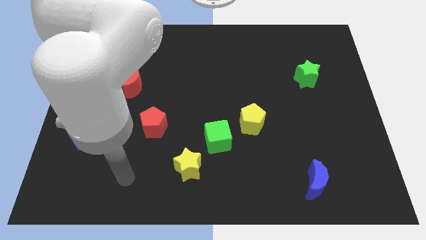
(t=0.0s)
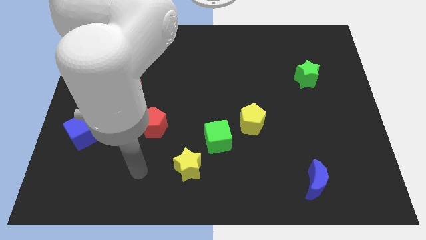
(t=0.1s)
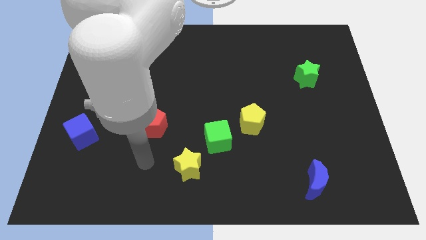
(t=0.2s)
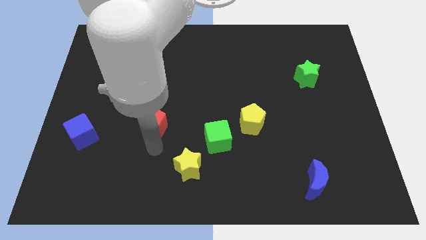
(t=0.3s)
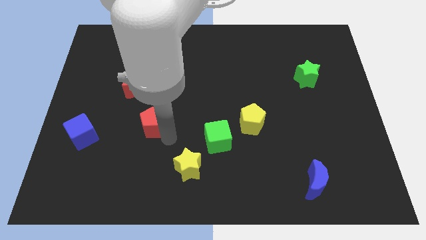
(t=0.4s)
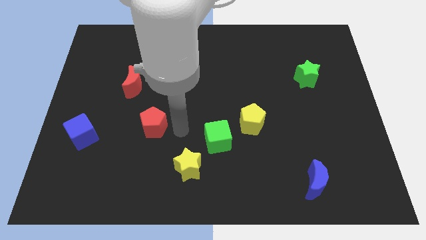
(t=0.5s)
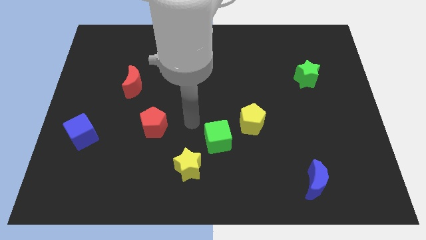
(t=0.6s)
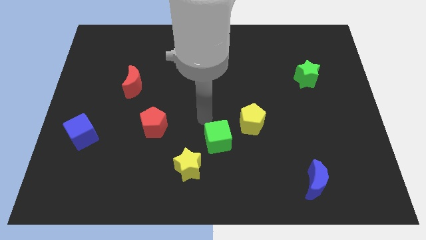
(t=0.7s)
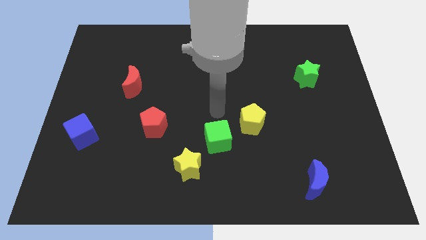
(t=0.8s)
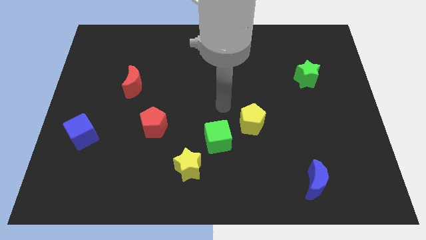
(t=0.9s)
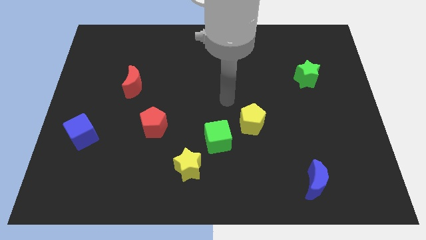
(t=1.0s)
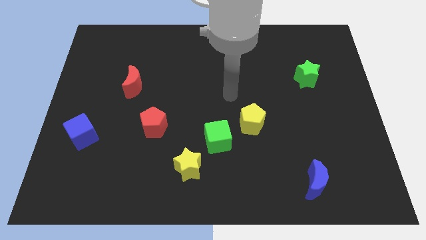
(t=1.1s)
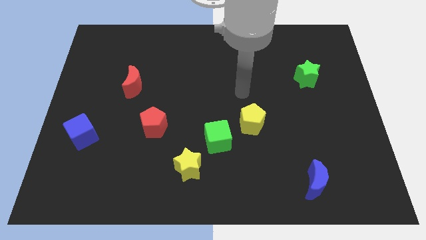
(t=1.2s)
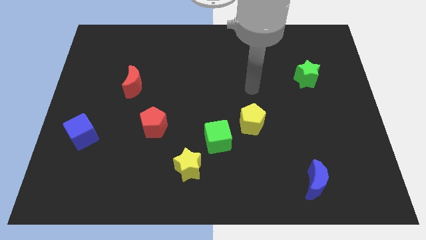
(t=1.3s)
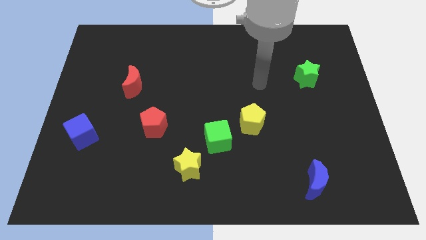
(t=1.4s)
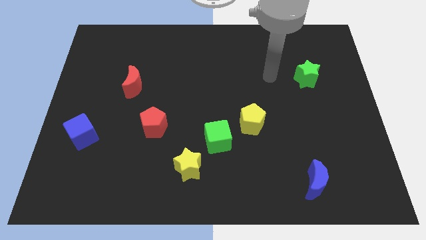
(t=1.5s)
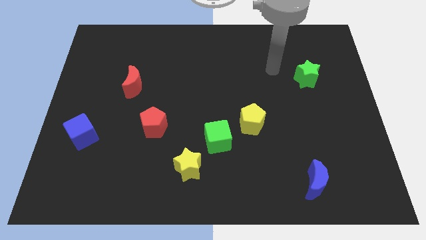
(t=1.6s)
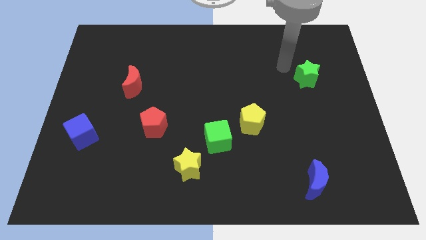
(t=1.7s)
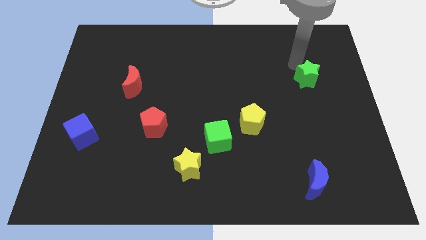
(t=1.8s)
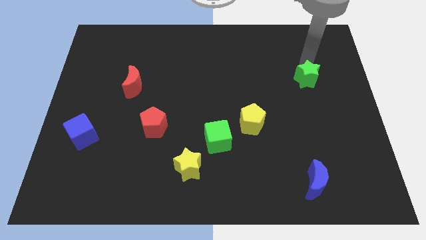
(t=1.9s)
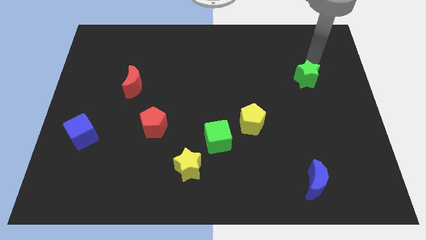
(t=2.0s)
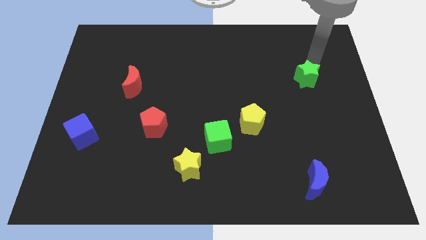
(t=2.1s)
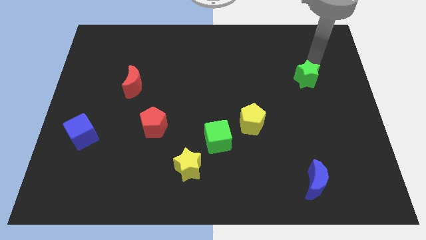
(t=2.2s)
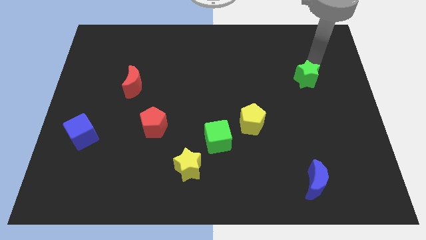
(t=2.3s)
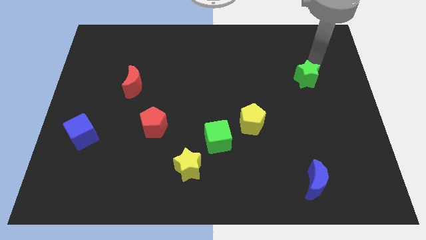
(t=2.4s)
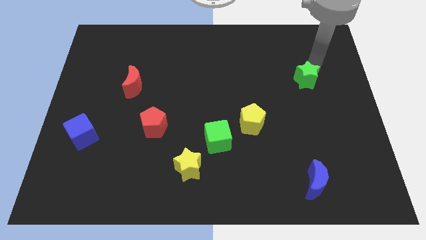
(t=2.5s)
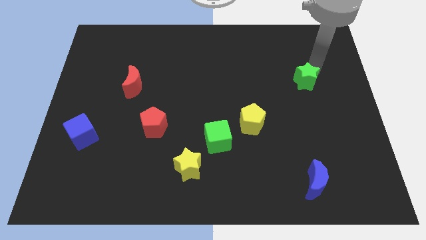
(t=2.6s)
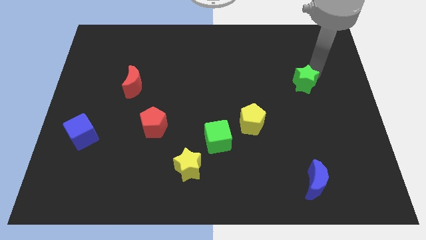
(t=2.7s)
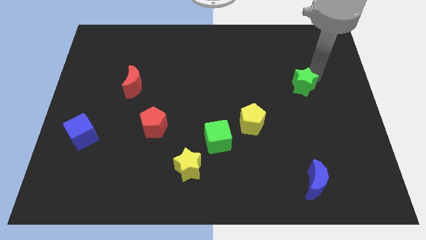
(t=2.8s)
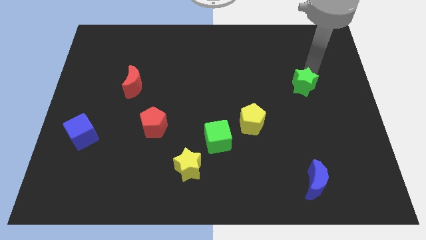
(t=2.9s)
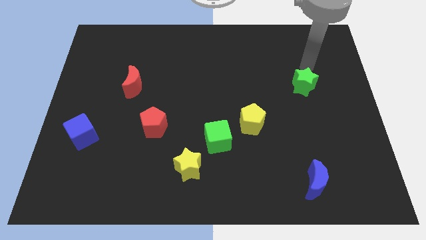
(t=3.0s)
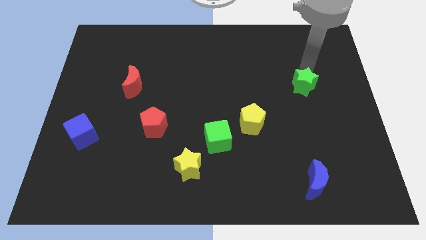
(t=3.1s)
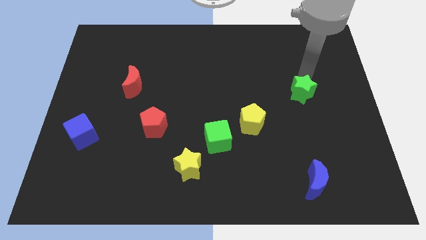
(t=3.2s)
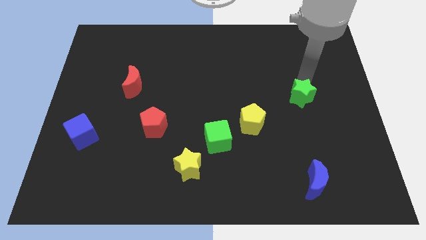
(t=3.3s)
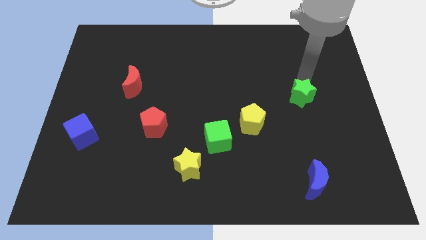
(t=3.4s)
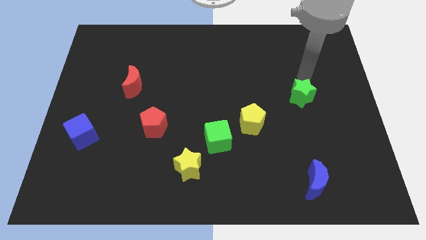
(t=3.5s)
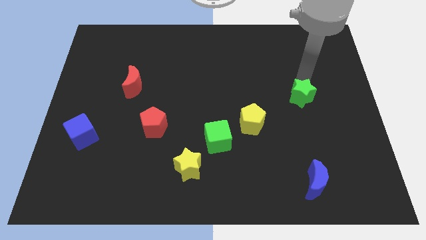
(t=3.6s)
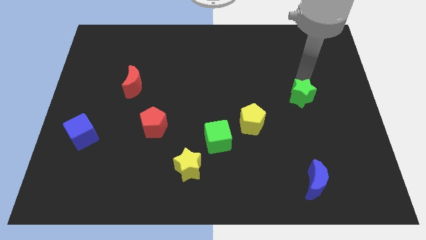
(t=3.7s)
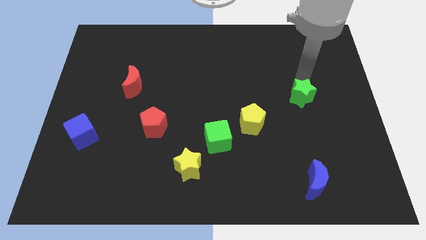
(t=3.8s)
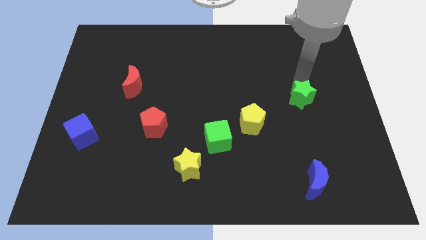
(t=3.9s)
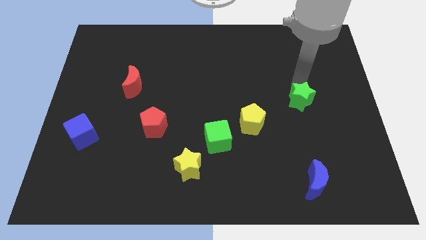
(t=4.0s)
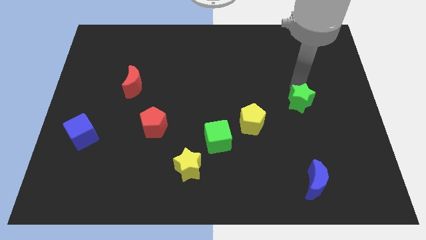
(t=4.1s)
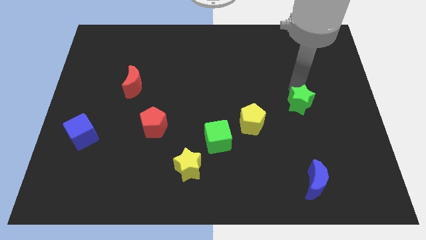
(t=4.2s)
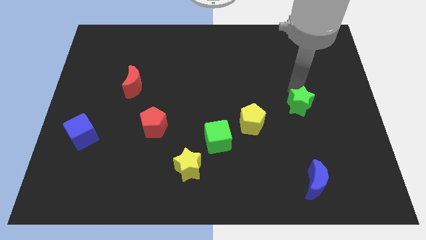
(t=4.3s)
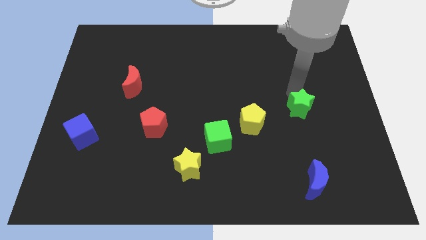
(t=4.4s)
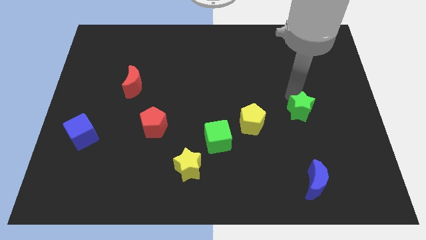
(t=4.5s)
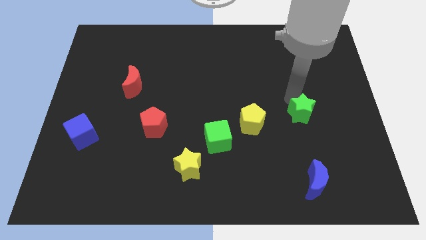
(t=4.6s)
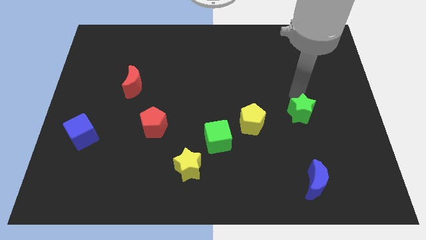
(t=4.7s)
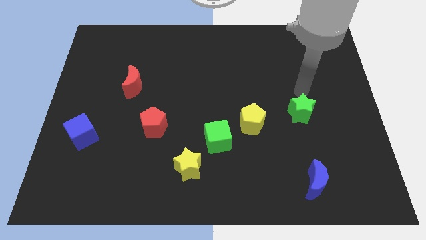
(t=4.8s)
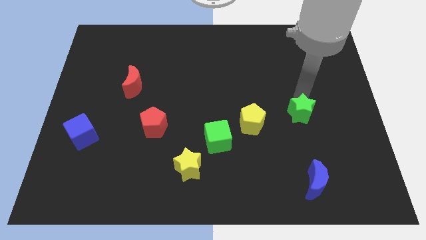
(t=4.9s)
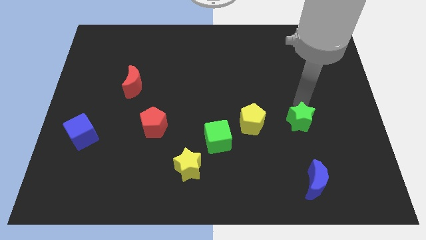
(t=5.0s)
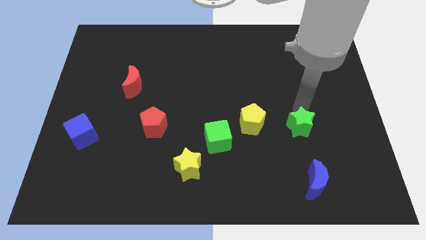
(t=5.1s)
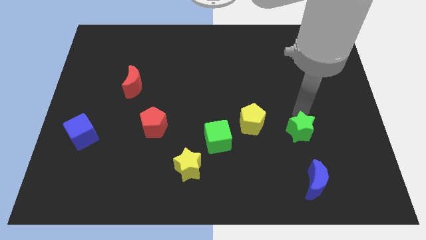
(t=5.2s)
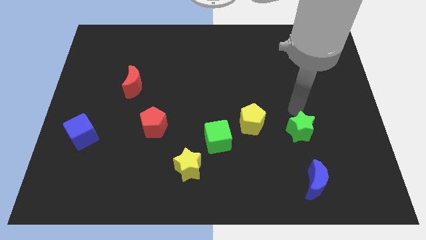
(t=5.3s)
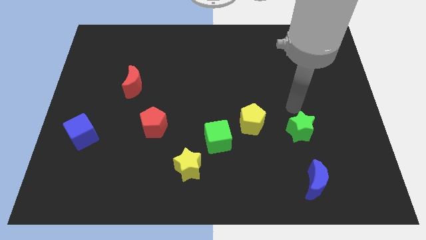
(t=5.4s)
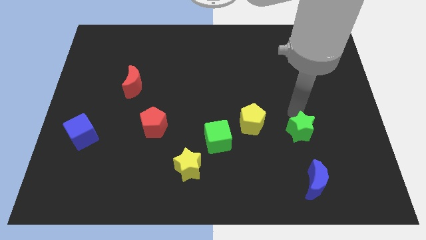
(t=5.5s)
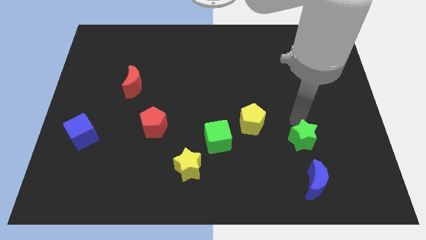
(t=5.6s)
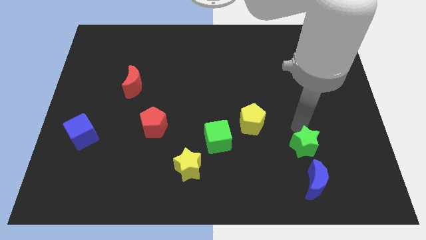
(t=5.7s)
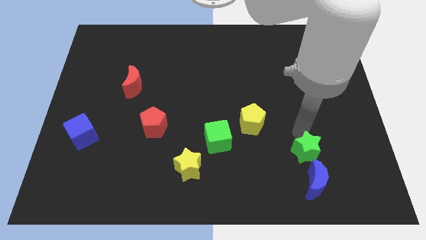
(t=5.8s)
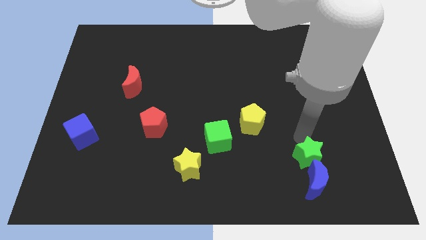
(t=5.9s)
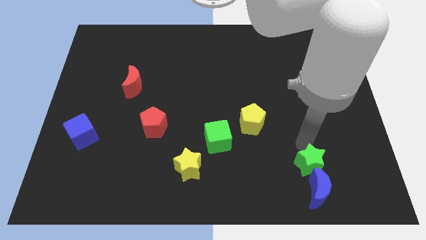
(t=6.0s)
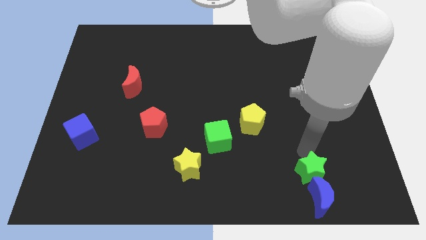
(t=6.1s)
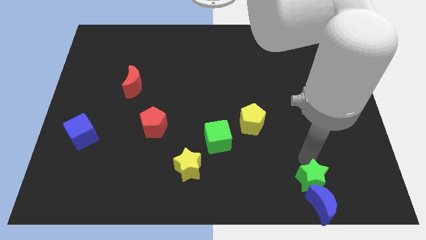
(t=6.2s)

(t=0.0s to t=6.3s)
push the green star close to the blue moon

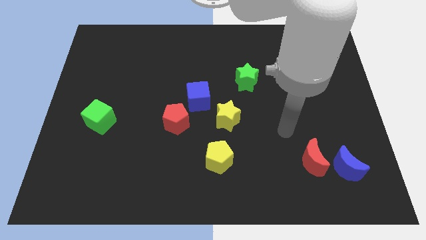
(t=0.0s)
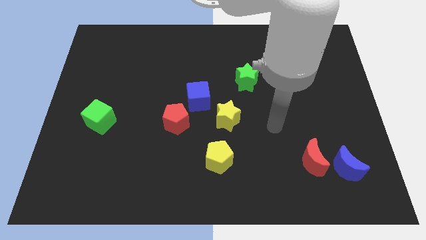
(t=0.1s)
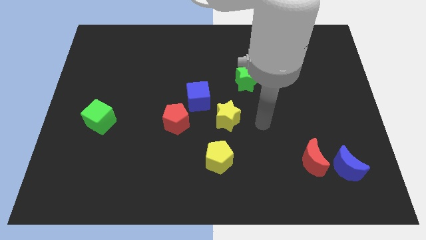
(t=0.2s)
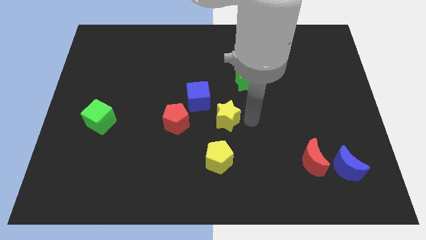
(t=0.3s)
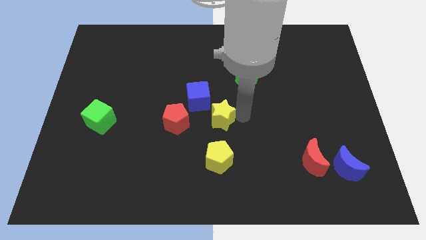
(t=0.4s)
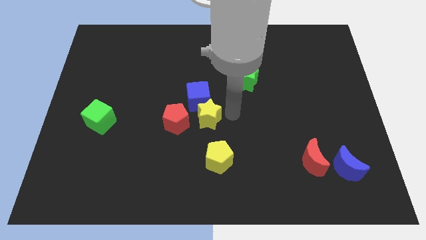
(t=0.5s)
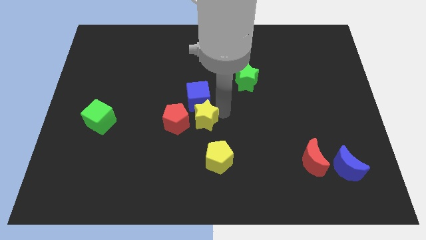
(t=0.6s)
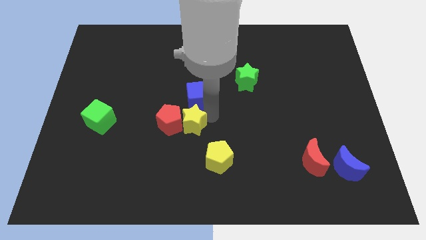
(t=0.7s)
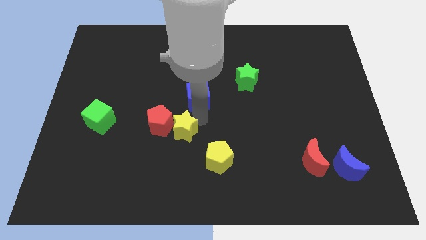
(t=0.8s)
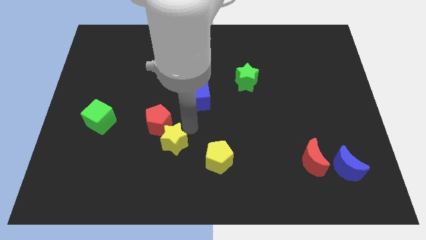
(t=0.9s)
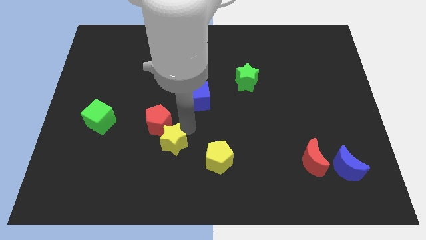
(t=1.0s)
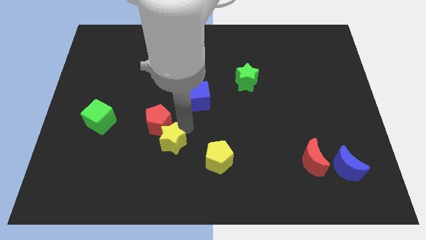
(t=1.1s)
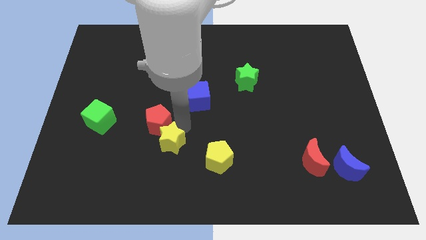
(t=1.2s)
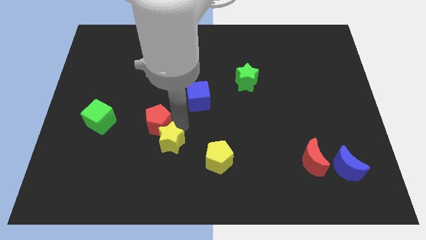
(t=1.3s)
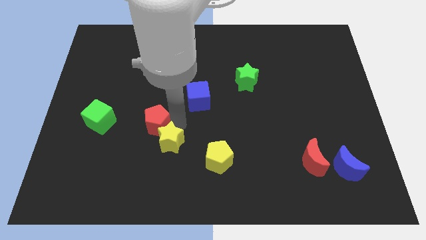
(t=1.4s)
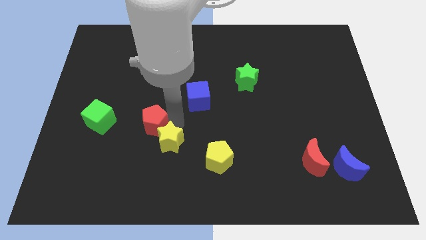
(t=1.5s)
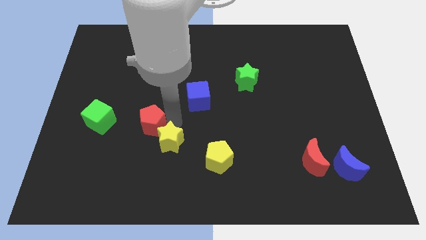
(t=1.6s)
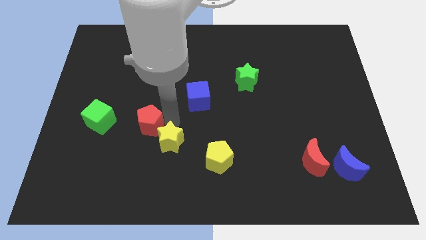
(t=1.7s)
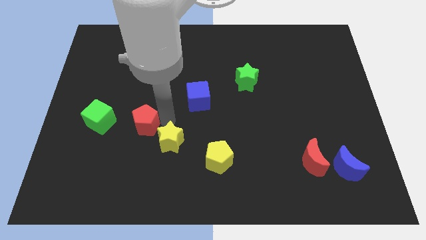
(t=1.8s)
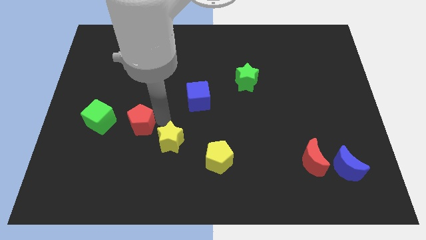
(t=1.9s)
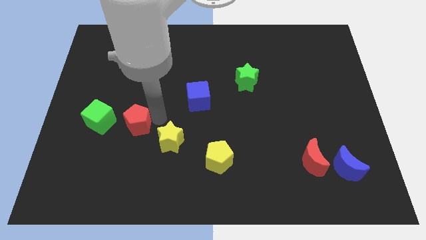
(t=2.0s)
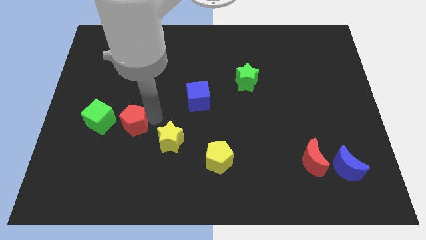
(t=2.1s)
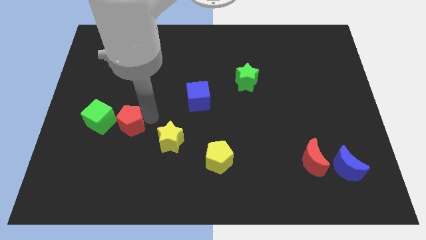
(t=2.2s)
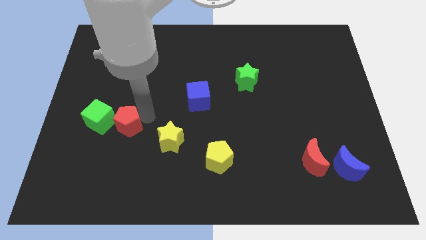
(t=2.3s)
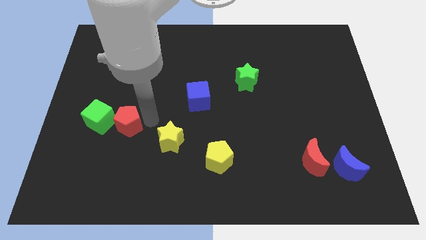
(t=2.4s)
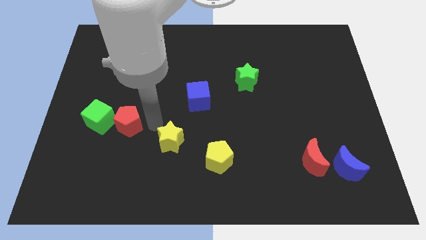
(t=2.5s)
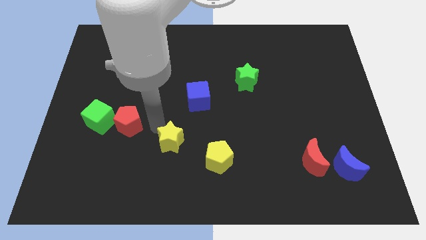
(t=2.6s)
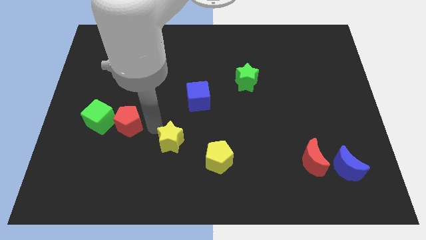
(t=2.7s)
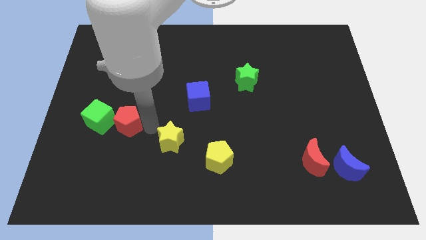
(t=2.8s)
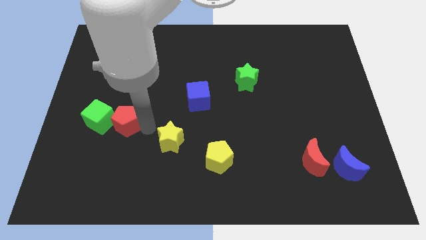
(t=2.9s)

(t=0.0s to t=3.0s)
slide the red pentagon towards the green cube
